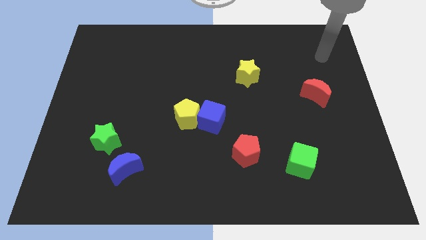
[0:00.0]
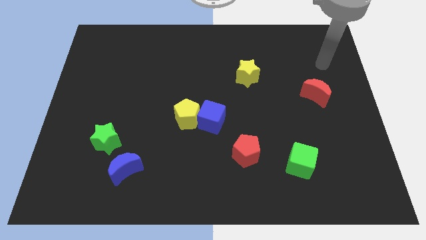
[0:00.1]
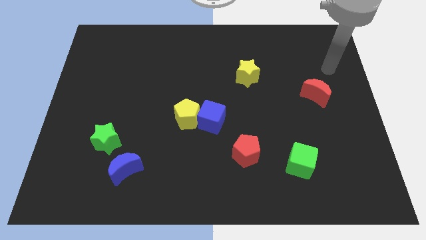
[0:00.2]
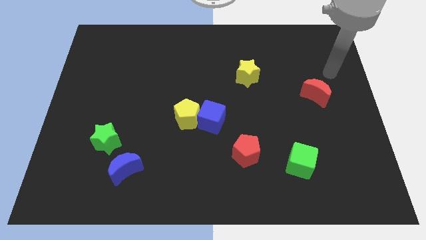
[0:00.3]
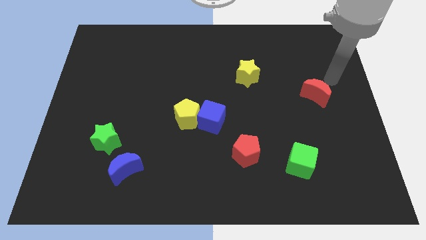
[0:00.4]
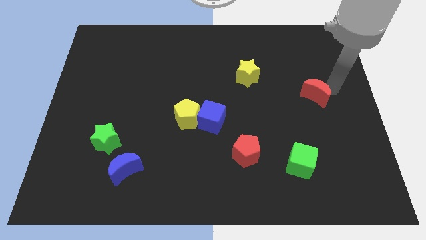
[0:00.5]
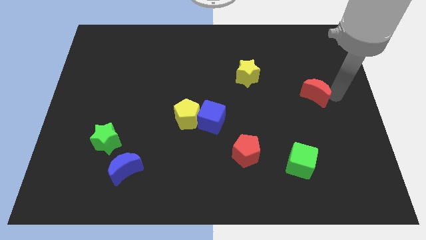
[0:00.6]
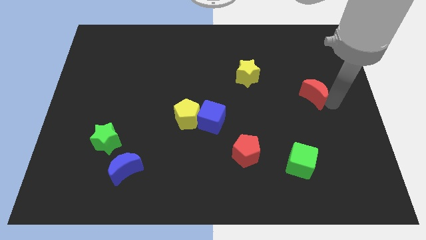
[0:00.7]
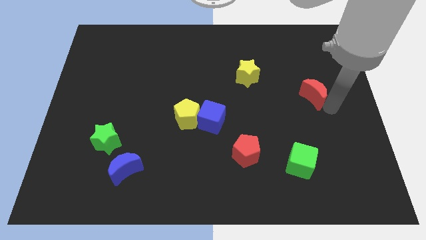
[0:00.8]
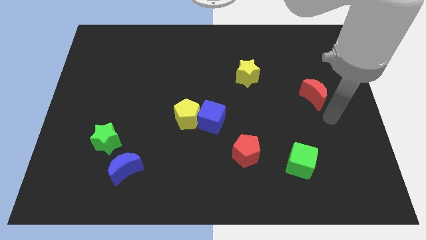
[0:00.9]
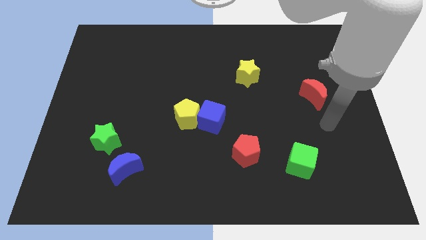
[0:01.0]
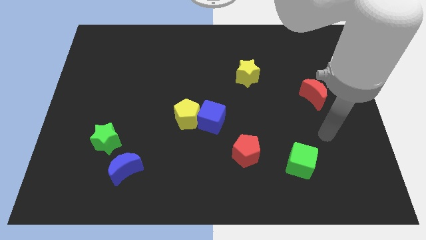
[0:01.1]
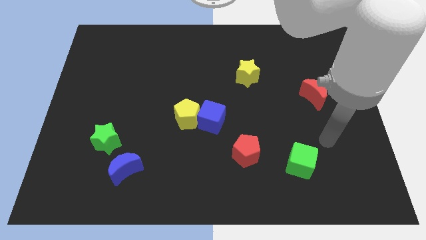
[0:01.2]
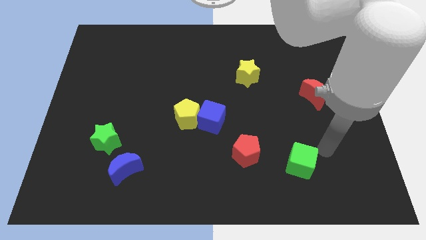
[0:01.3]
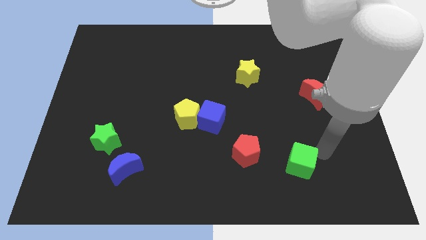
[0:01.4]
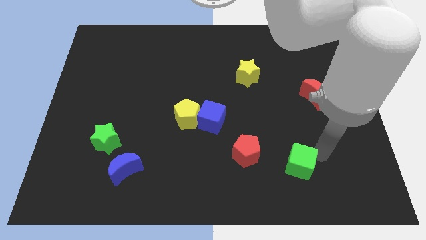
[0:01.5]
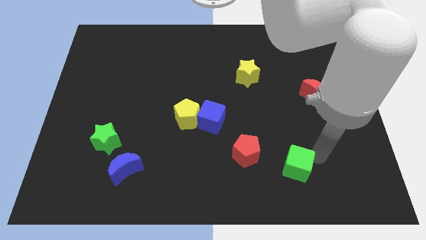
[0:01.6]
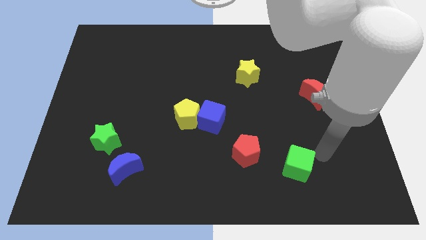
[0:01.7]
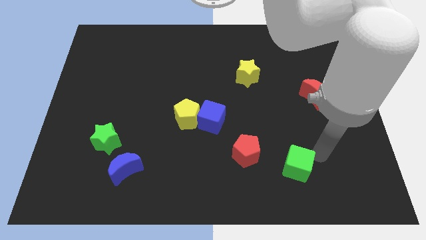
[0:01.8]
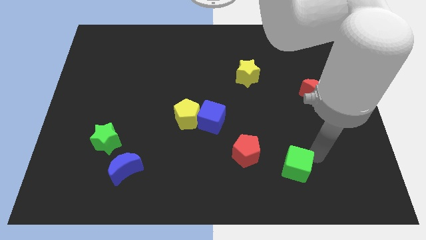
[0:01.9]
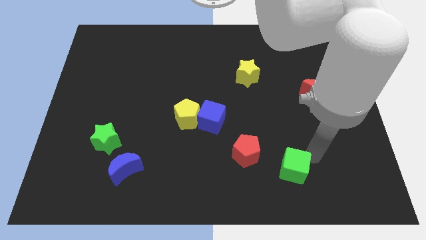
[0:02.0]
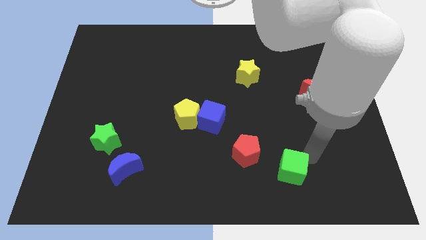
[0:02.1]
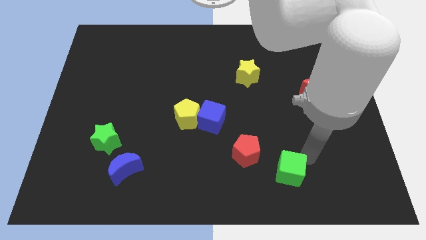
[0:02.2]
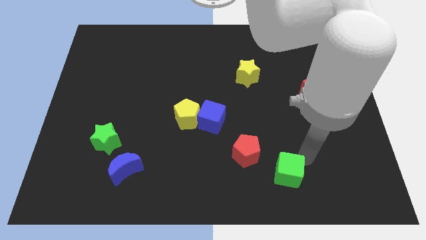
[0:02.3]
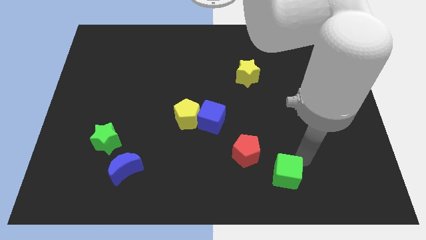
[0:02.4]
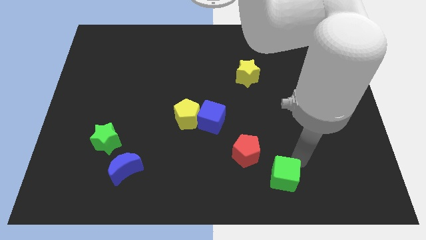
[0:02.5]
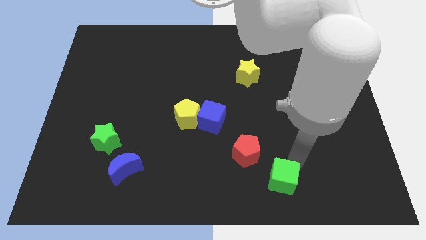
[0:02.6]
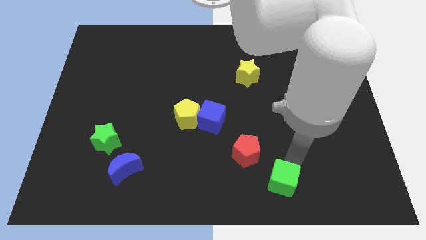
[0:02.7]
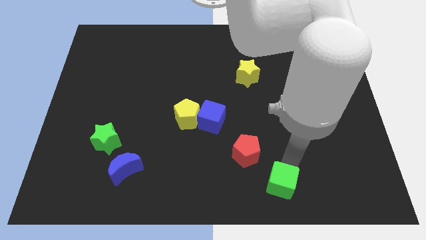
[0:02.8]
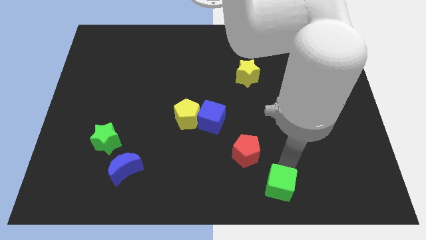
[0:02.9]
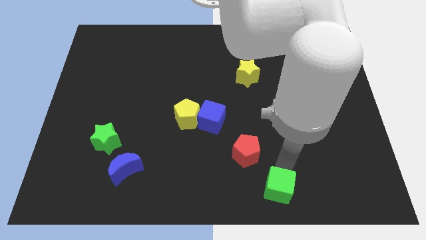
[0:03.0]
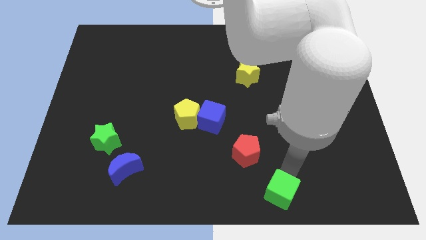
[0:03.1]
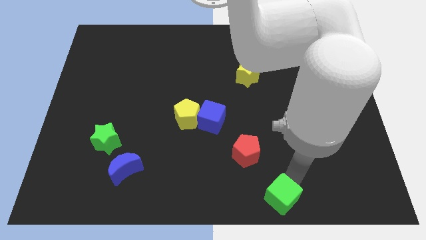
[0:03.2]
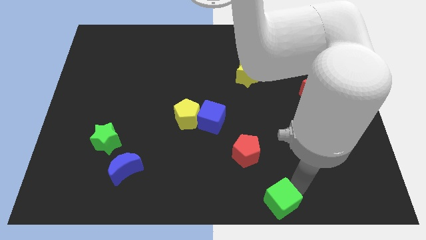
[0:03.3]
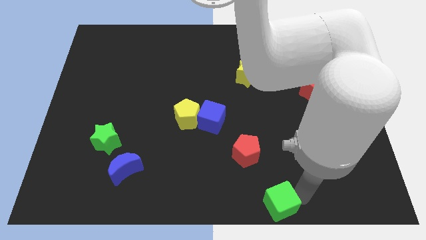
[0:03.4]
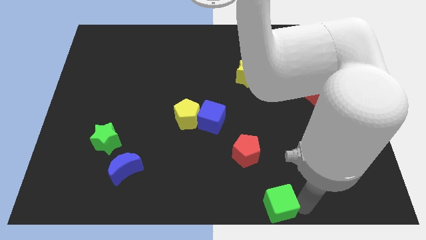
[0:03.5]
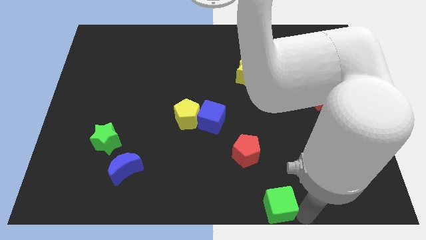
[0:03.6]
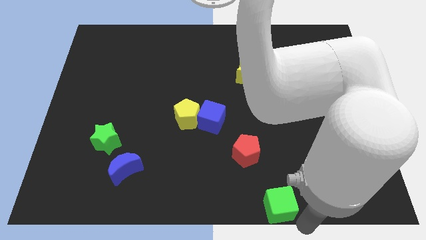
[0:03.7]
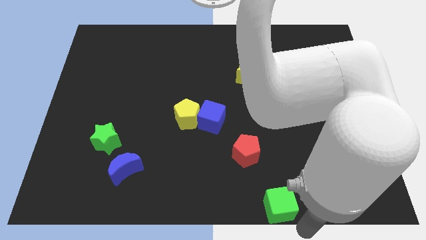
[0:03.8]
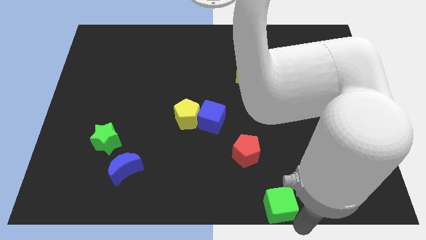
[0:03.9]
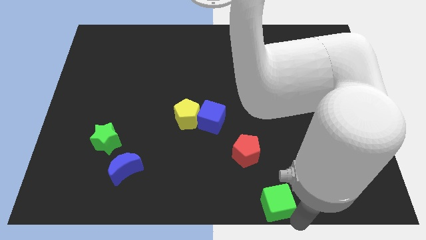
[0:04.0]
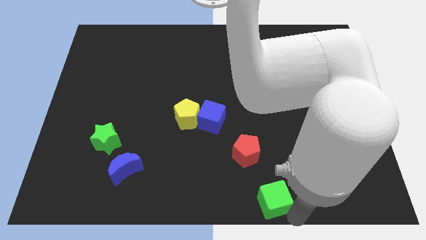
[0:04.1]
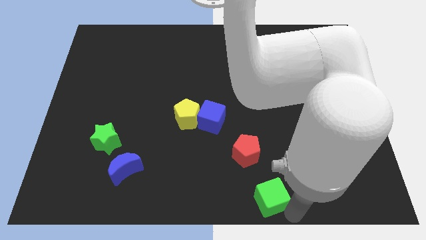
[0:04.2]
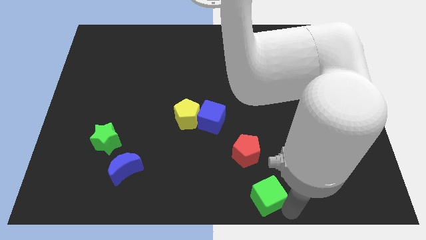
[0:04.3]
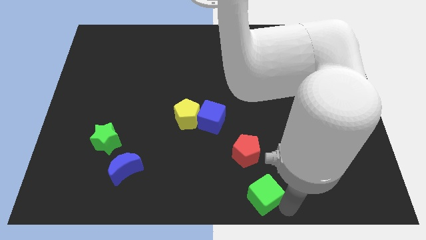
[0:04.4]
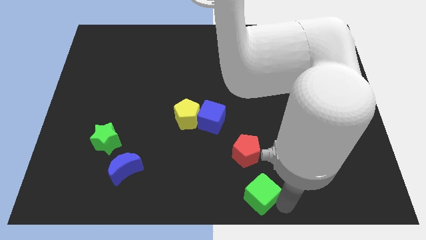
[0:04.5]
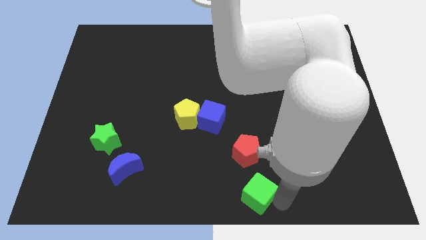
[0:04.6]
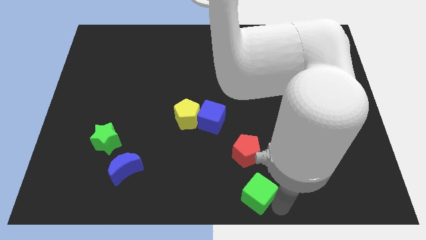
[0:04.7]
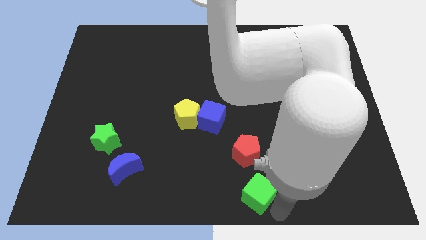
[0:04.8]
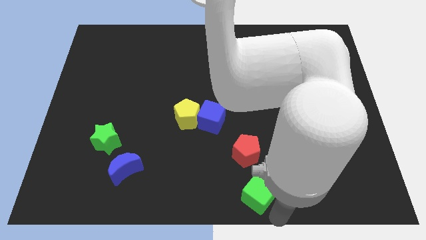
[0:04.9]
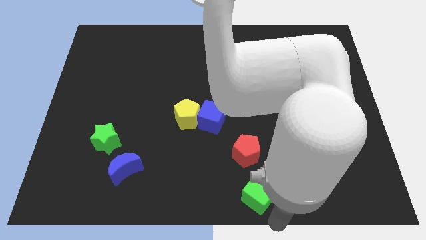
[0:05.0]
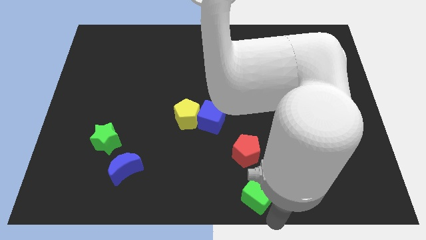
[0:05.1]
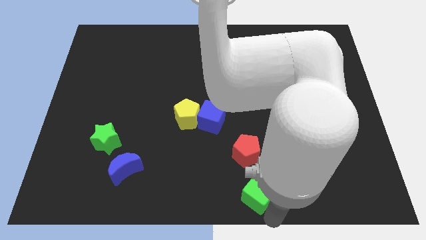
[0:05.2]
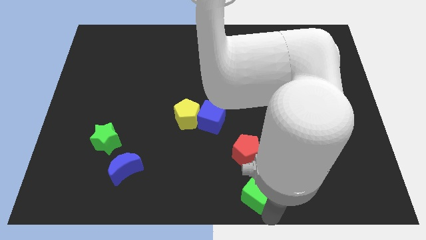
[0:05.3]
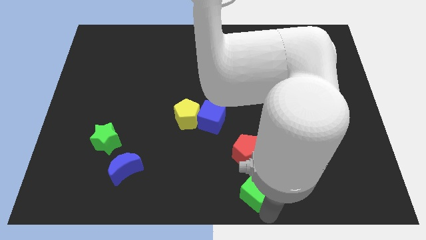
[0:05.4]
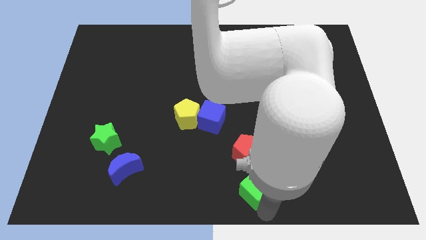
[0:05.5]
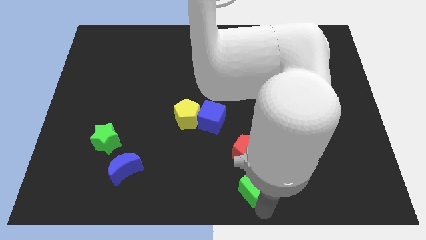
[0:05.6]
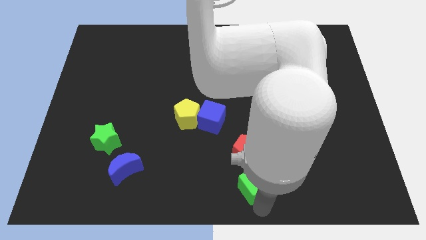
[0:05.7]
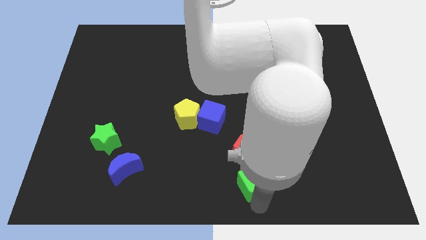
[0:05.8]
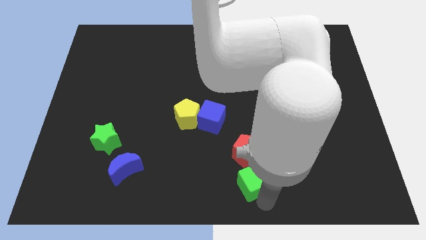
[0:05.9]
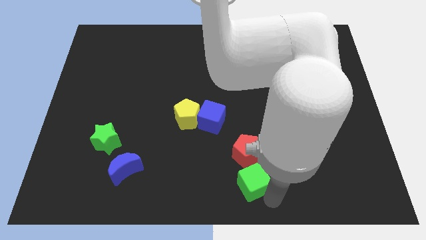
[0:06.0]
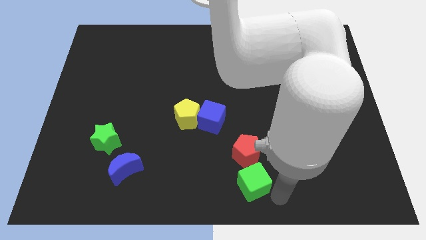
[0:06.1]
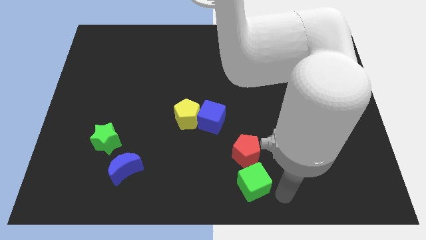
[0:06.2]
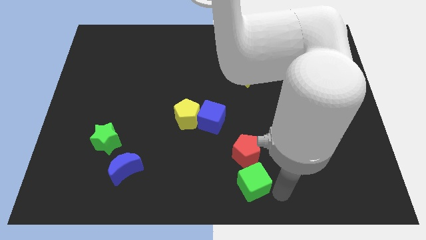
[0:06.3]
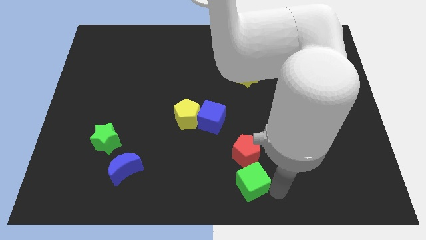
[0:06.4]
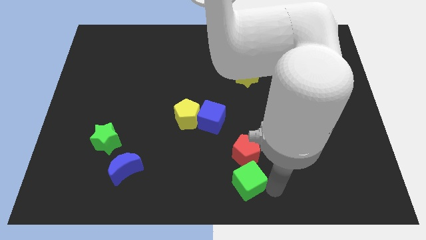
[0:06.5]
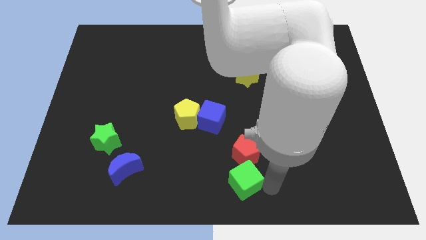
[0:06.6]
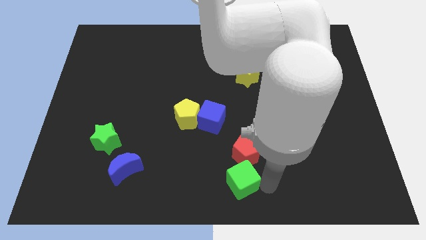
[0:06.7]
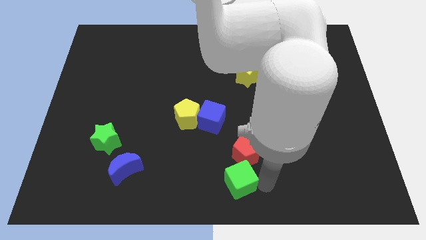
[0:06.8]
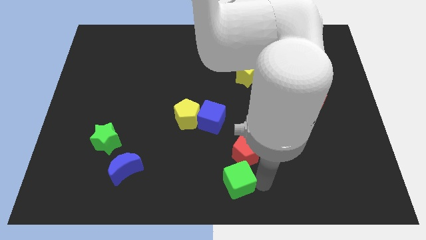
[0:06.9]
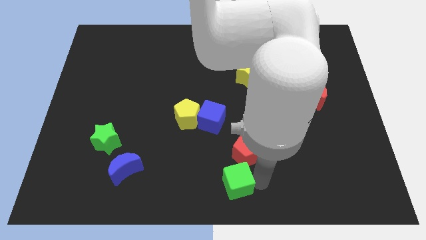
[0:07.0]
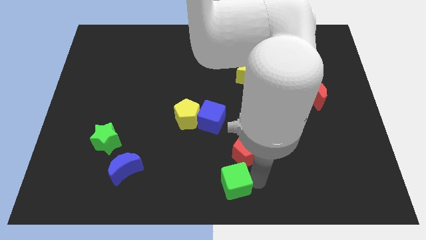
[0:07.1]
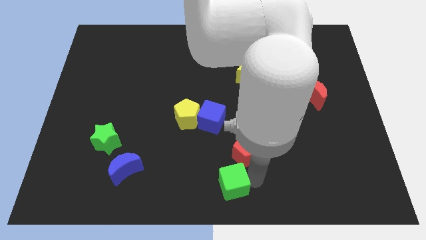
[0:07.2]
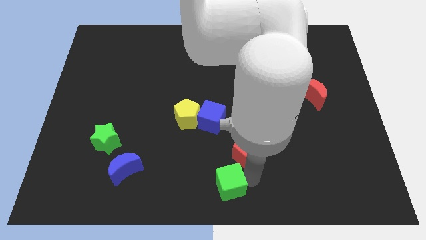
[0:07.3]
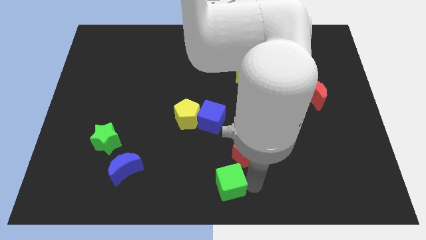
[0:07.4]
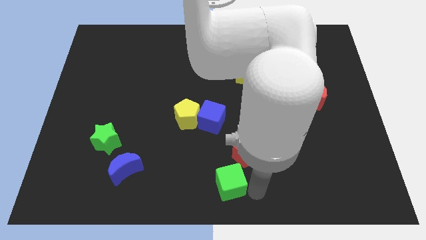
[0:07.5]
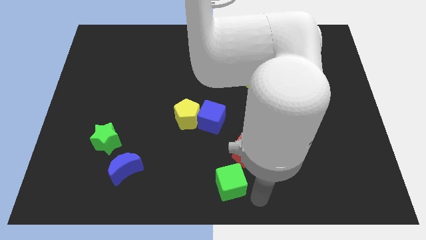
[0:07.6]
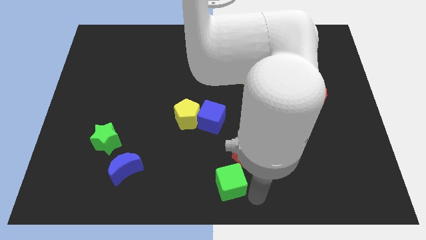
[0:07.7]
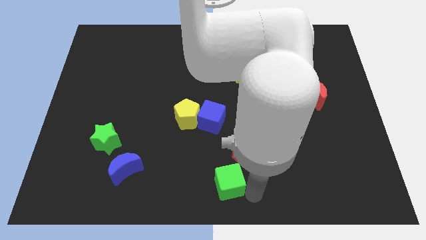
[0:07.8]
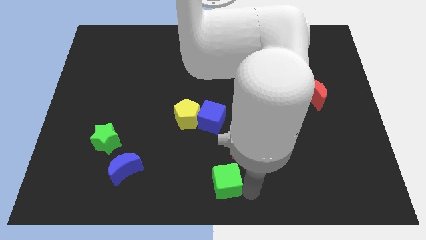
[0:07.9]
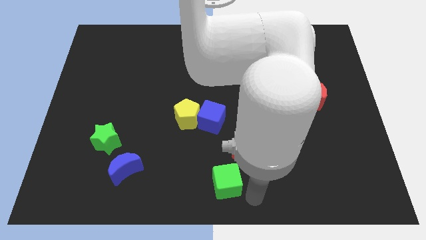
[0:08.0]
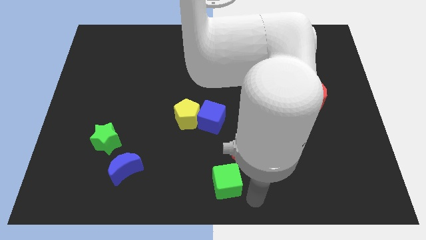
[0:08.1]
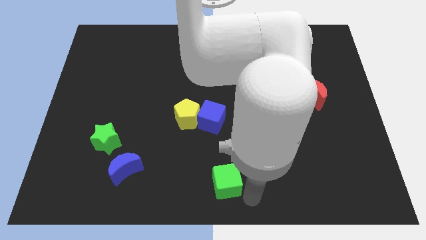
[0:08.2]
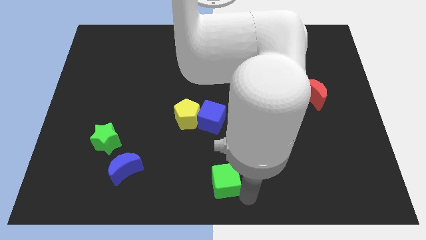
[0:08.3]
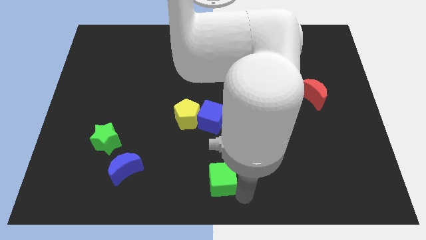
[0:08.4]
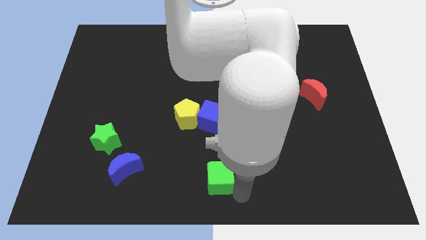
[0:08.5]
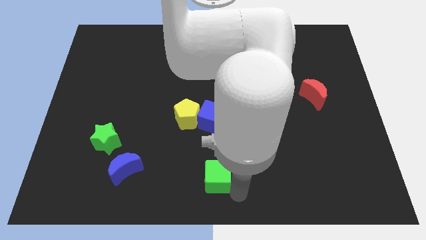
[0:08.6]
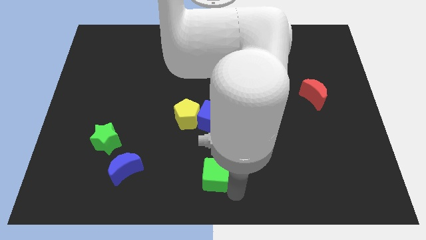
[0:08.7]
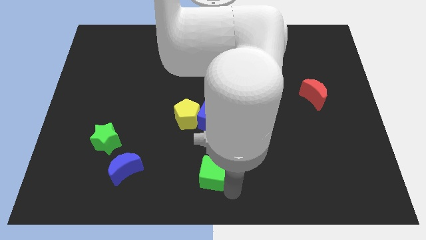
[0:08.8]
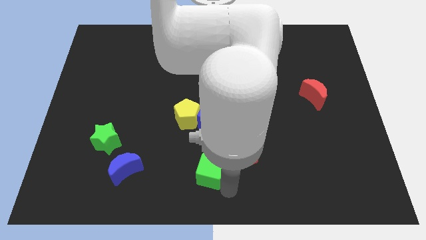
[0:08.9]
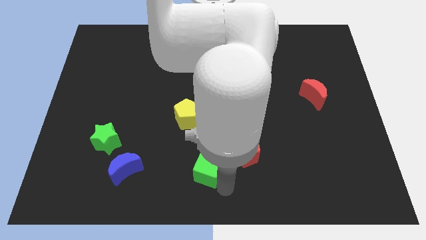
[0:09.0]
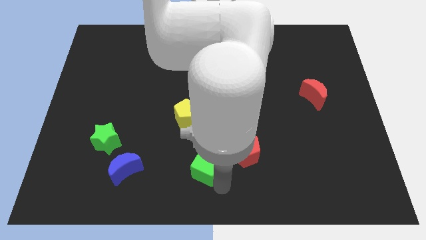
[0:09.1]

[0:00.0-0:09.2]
push the green cube left
